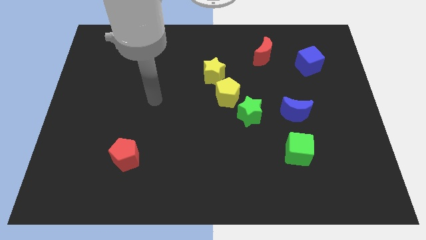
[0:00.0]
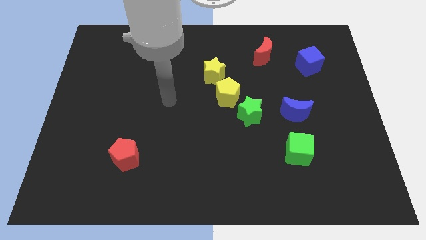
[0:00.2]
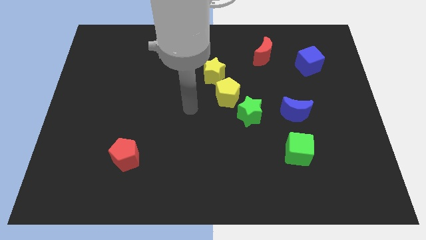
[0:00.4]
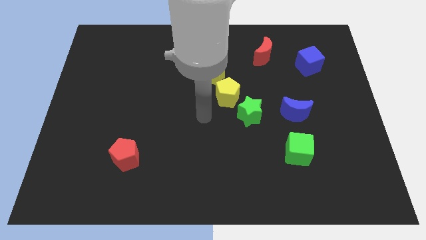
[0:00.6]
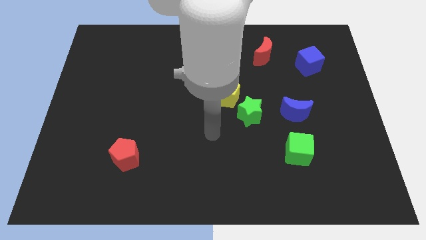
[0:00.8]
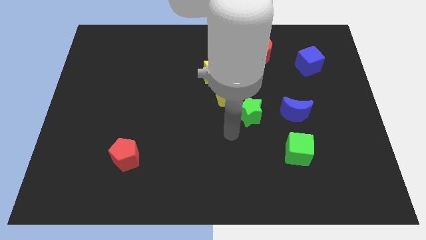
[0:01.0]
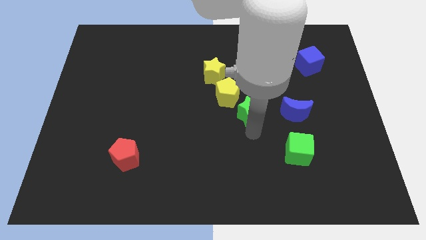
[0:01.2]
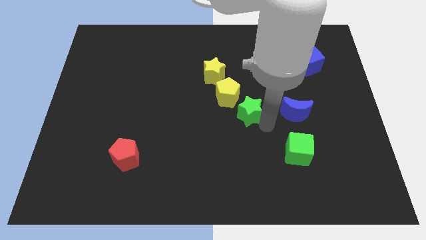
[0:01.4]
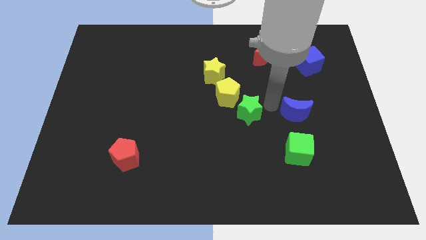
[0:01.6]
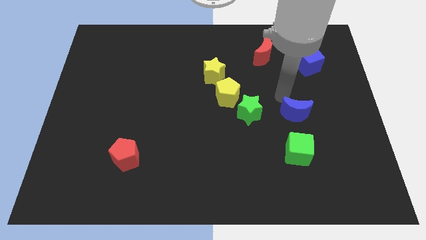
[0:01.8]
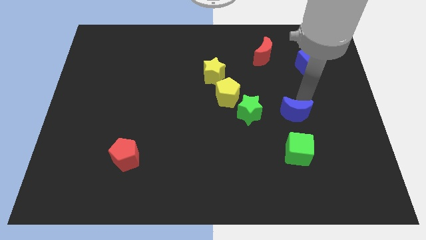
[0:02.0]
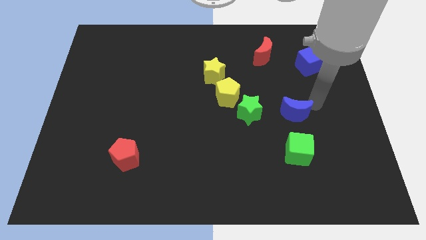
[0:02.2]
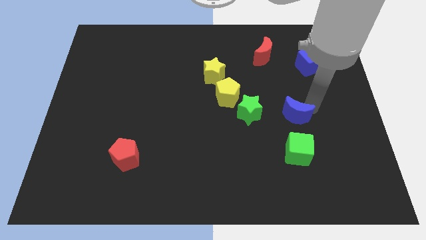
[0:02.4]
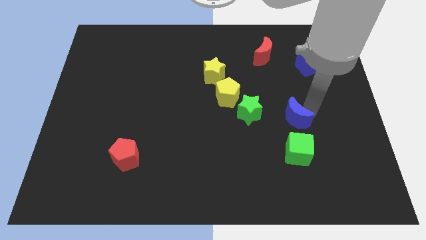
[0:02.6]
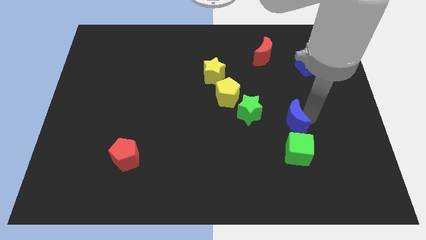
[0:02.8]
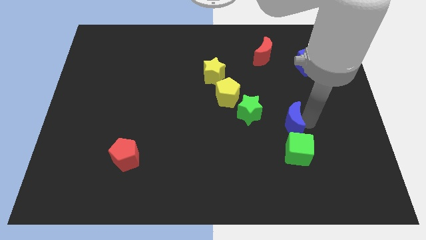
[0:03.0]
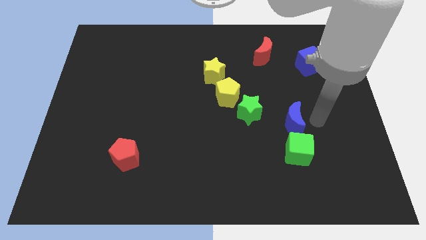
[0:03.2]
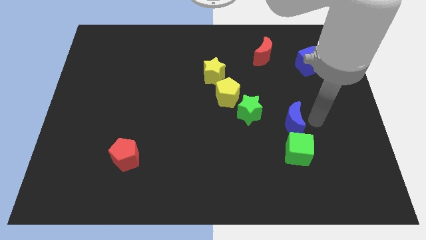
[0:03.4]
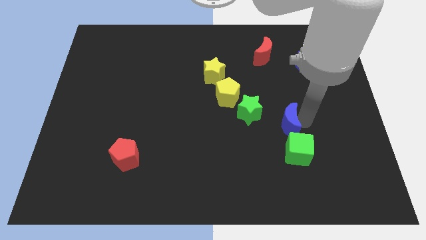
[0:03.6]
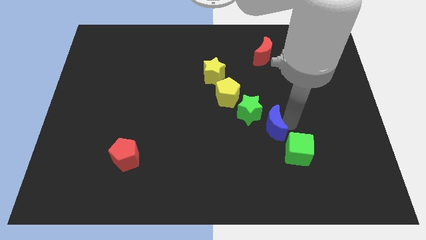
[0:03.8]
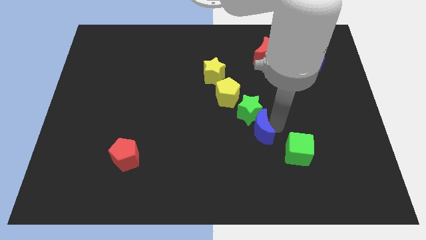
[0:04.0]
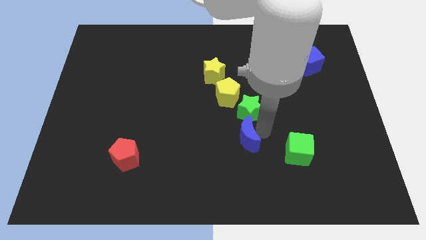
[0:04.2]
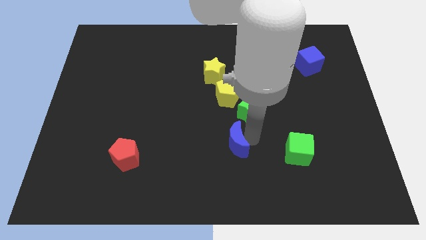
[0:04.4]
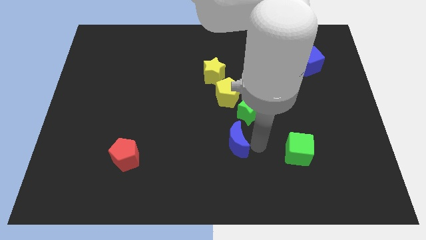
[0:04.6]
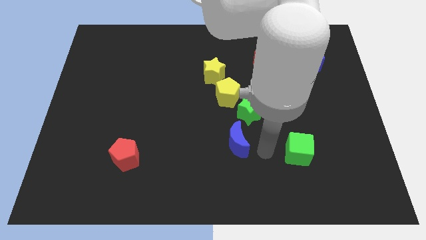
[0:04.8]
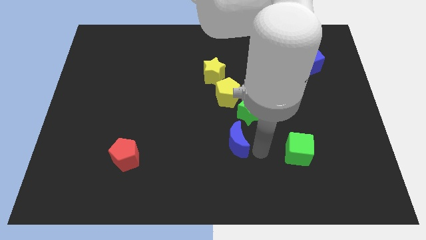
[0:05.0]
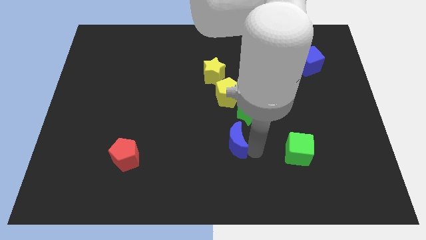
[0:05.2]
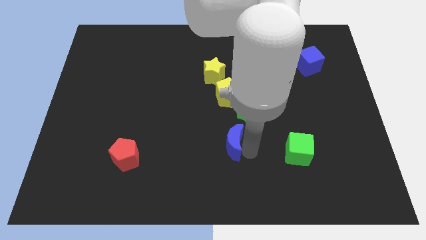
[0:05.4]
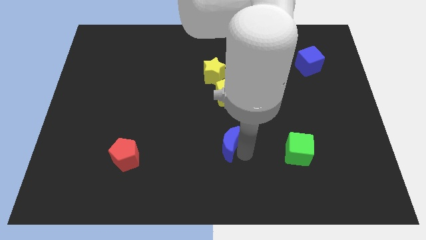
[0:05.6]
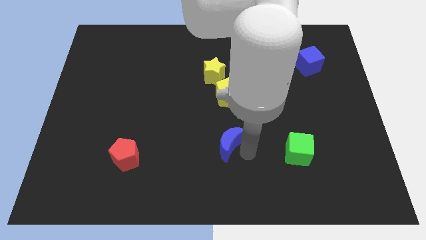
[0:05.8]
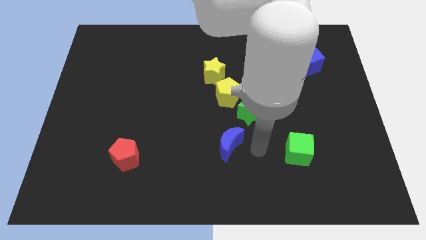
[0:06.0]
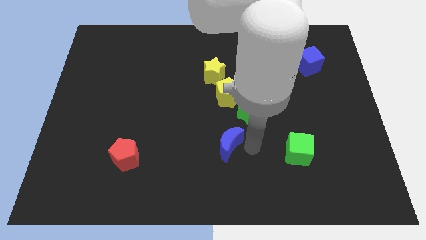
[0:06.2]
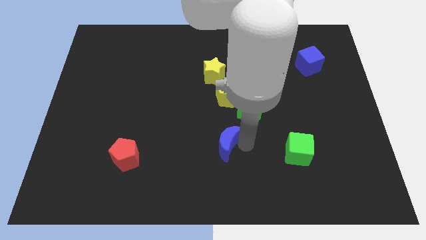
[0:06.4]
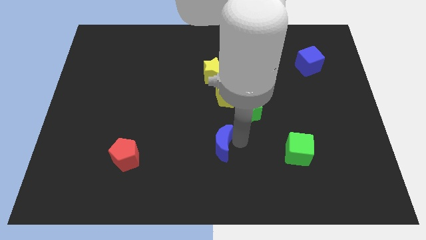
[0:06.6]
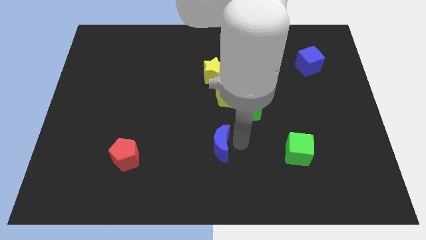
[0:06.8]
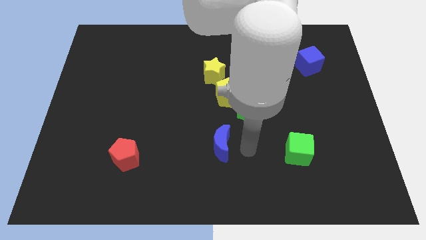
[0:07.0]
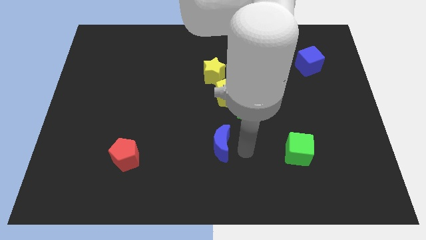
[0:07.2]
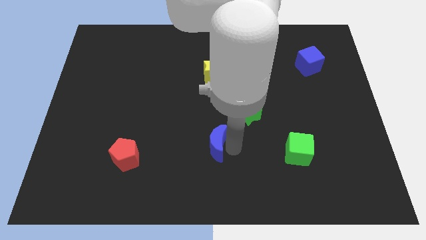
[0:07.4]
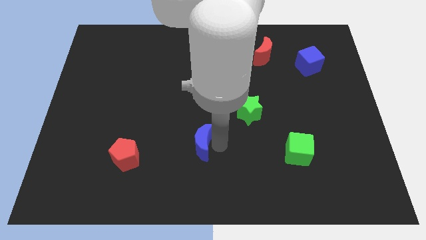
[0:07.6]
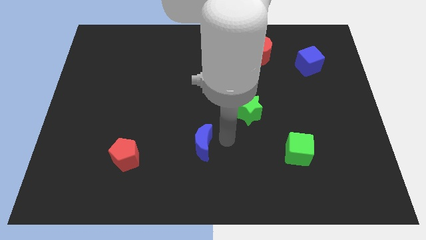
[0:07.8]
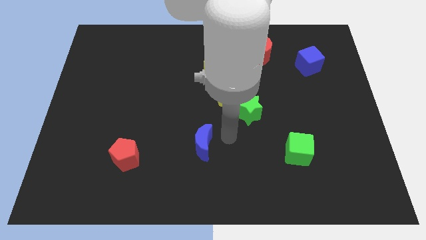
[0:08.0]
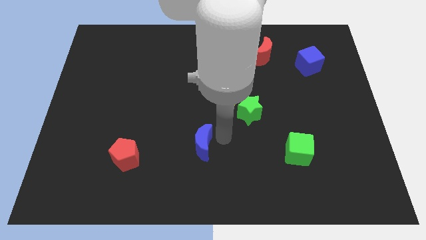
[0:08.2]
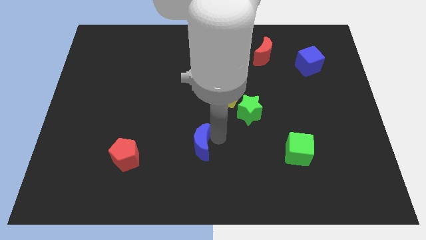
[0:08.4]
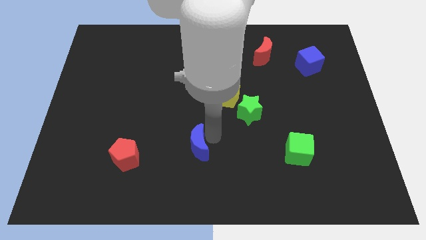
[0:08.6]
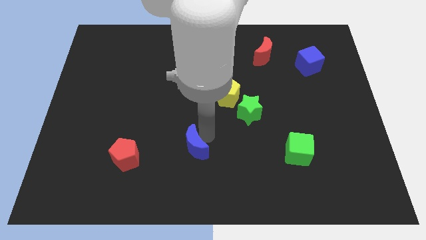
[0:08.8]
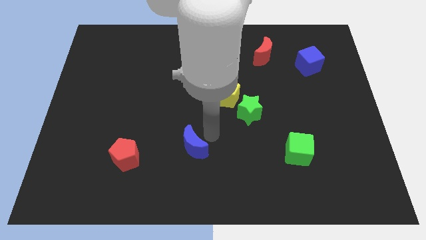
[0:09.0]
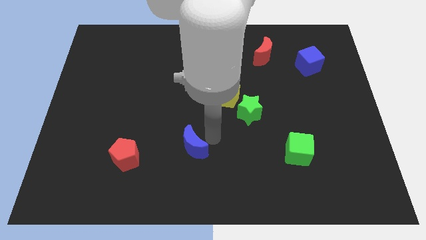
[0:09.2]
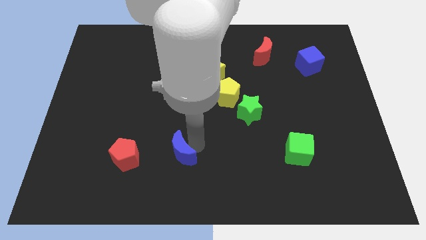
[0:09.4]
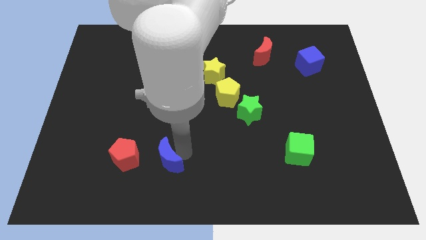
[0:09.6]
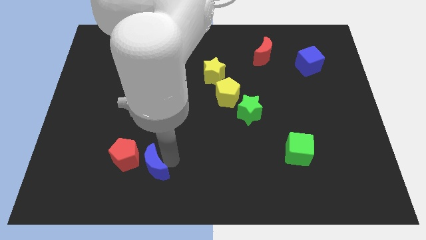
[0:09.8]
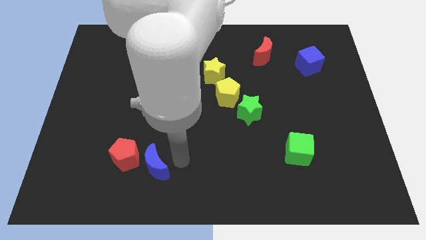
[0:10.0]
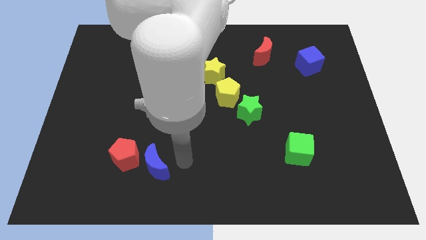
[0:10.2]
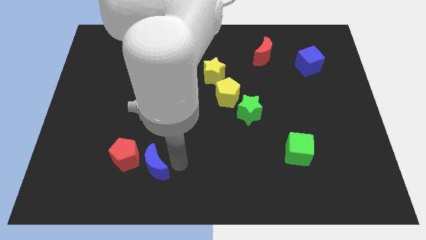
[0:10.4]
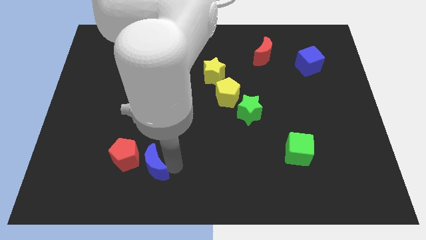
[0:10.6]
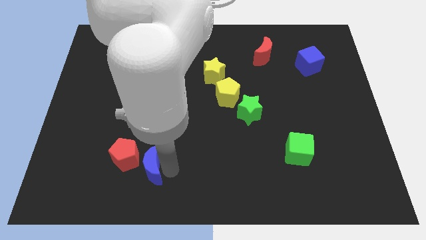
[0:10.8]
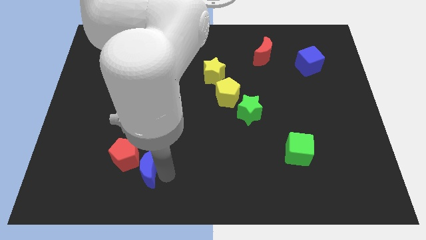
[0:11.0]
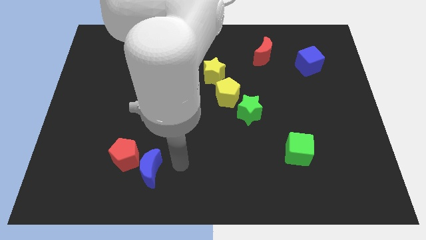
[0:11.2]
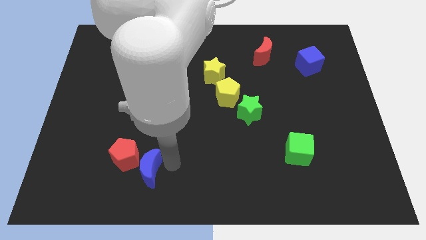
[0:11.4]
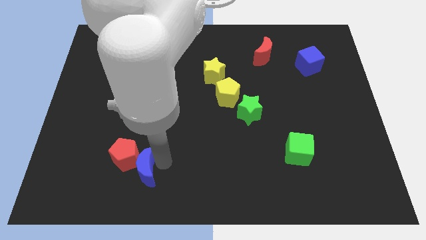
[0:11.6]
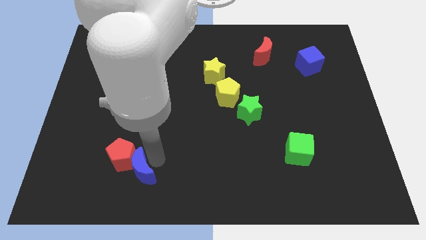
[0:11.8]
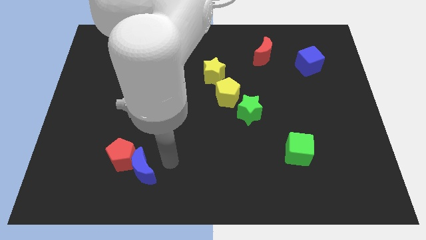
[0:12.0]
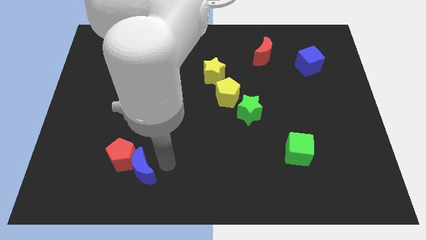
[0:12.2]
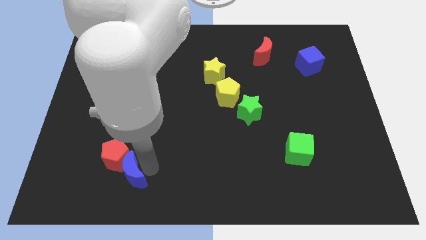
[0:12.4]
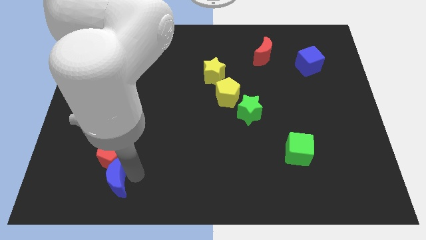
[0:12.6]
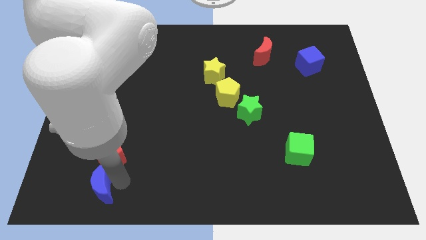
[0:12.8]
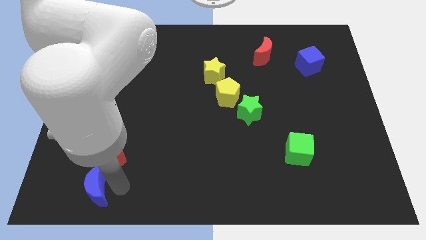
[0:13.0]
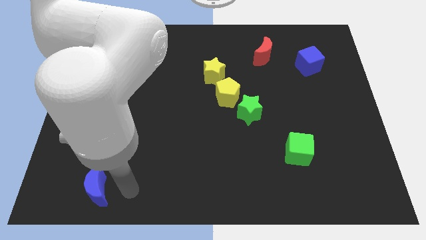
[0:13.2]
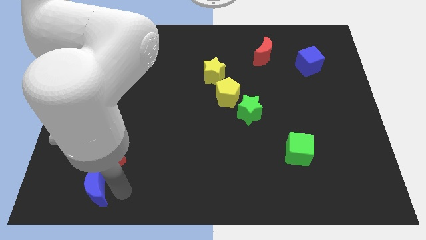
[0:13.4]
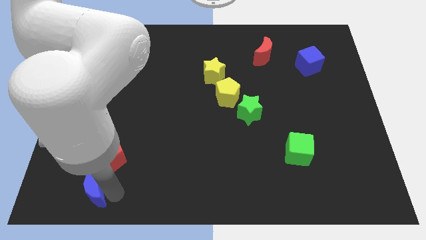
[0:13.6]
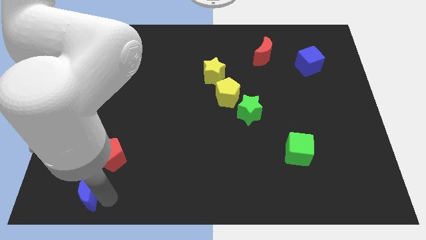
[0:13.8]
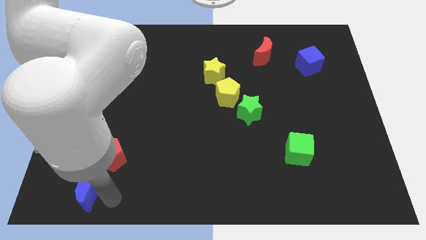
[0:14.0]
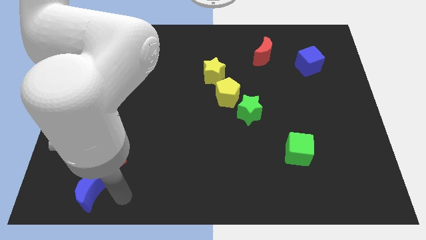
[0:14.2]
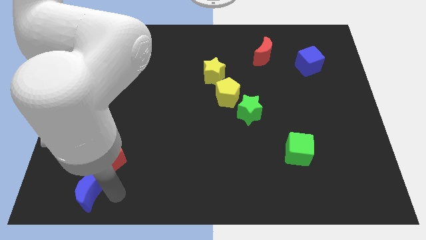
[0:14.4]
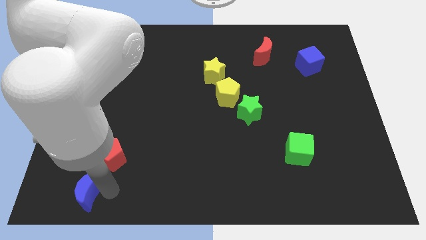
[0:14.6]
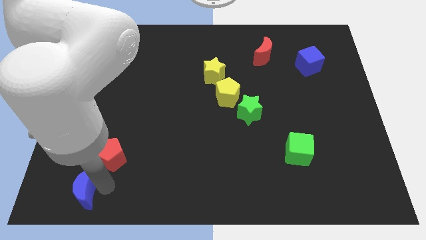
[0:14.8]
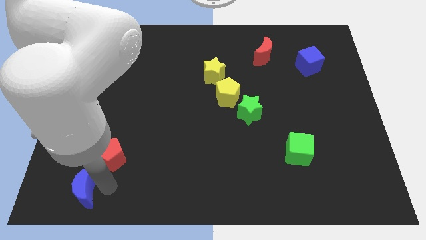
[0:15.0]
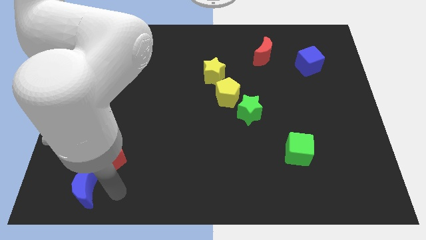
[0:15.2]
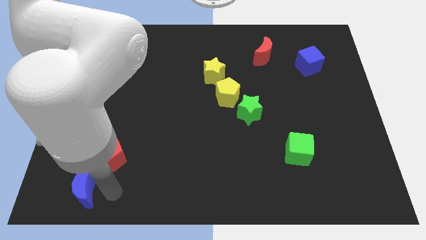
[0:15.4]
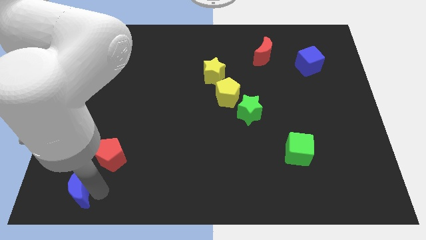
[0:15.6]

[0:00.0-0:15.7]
move the blue moon to the bottom left
